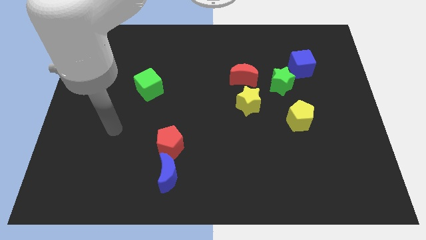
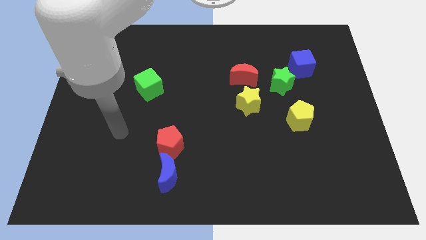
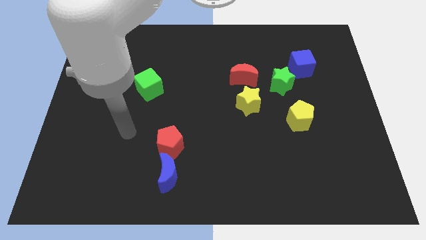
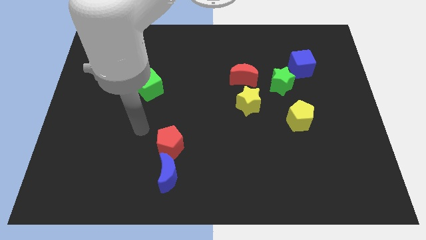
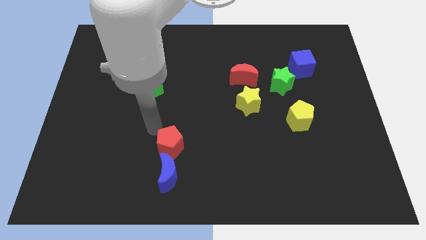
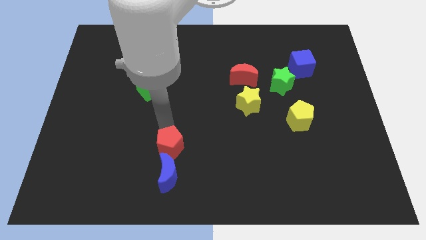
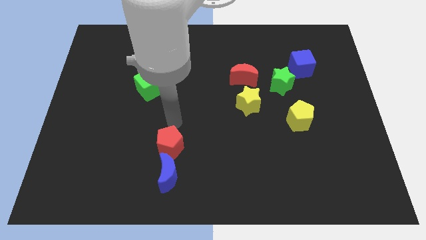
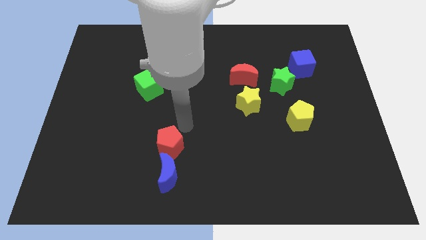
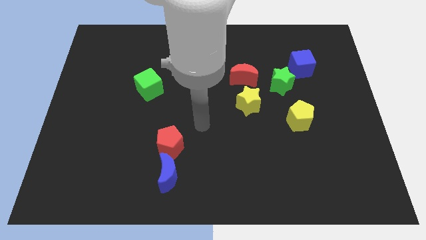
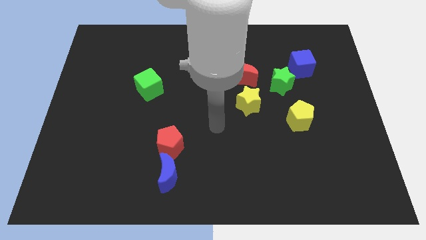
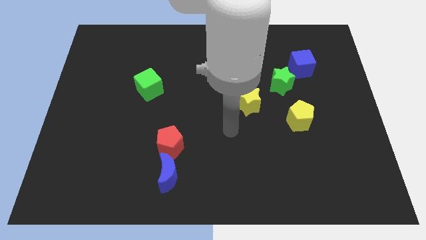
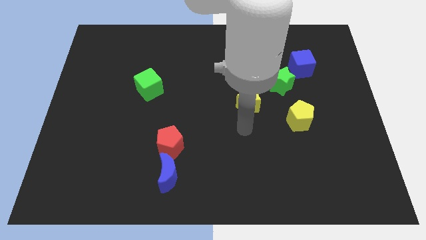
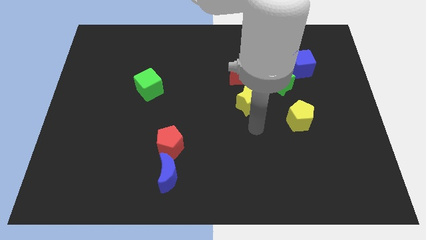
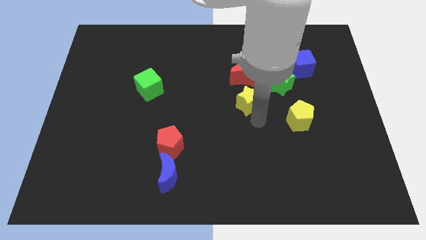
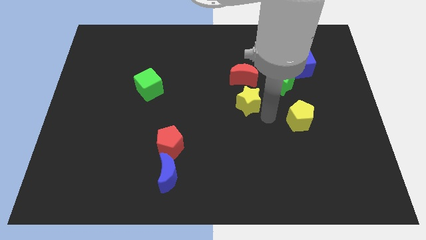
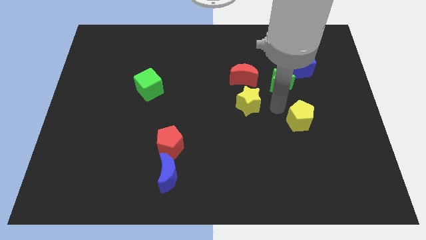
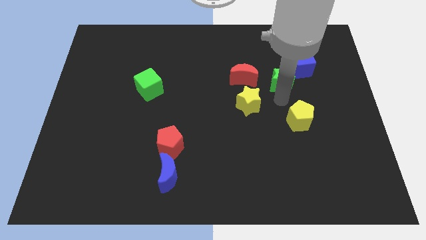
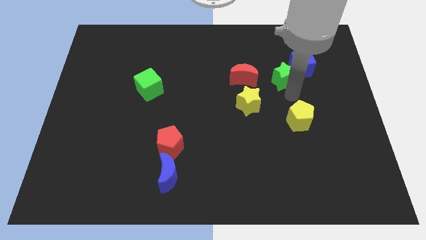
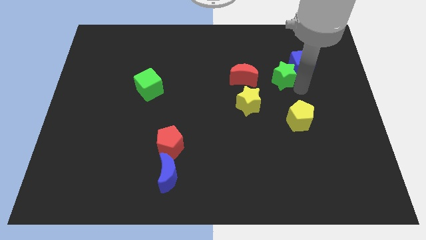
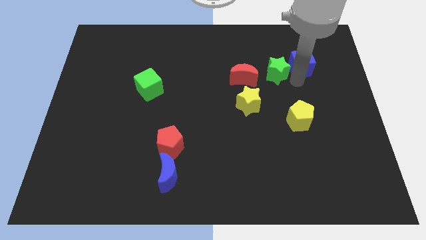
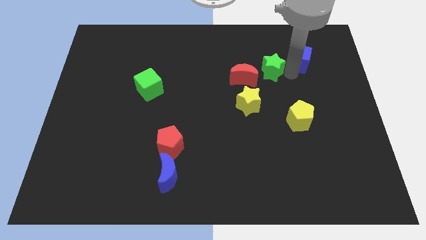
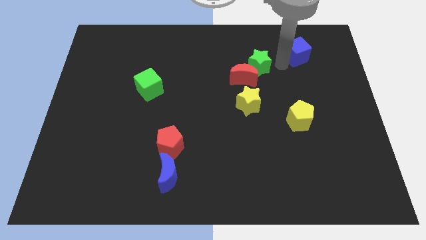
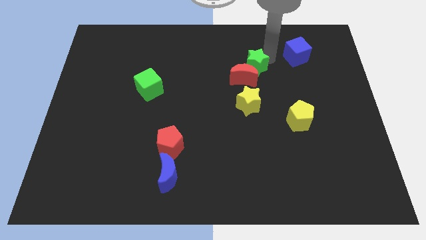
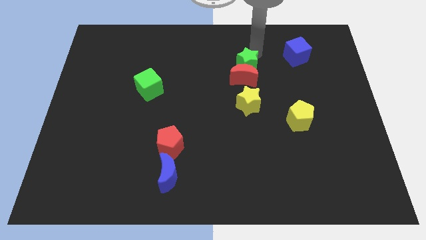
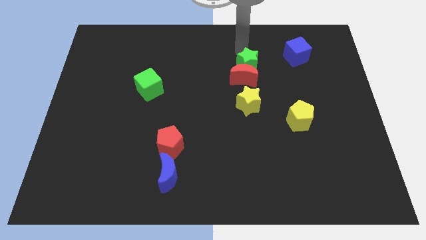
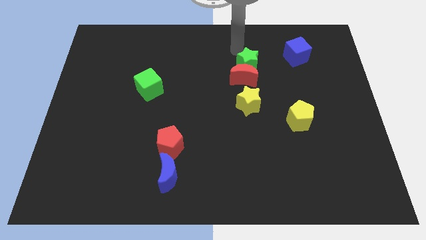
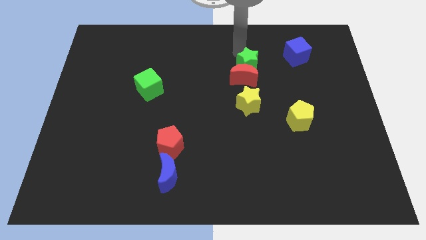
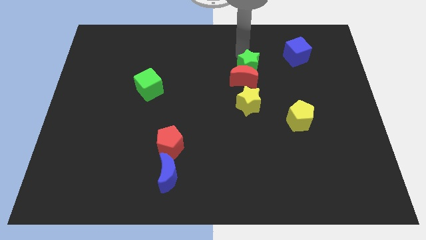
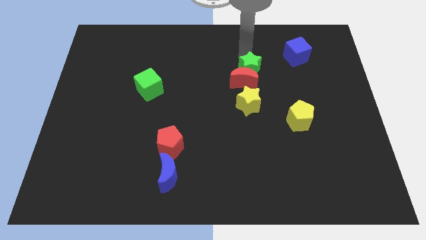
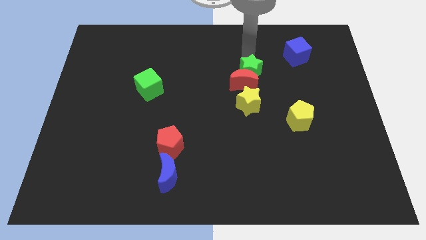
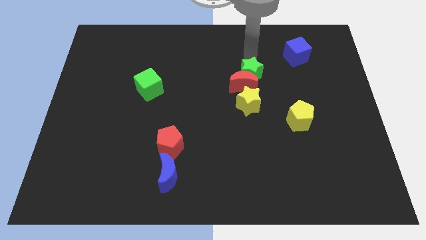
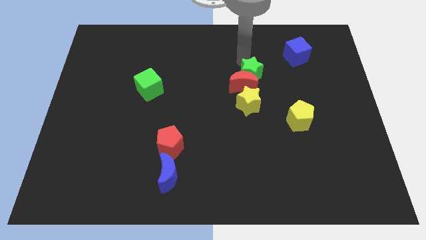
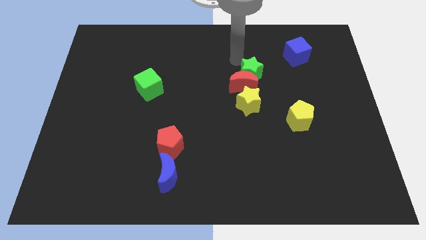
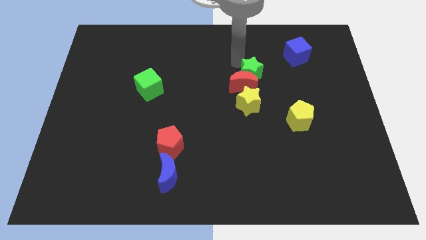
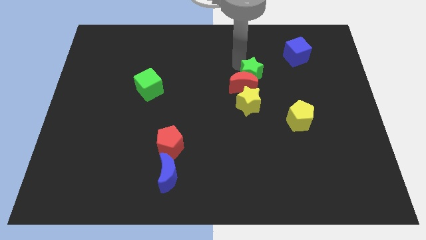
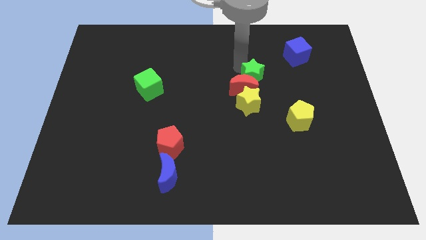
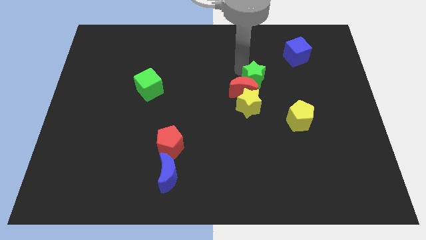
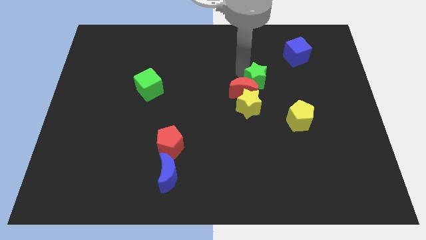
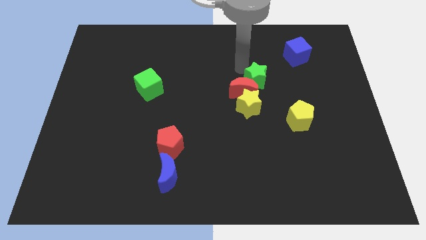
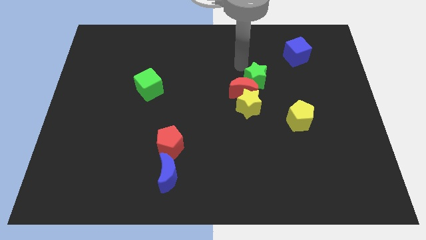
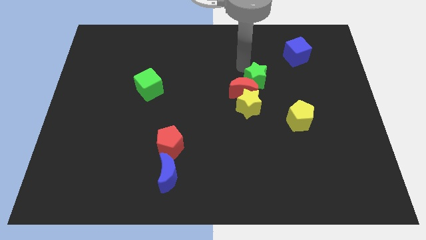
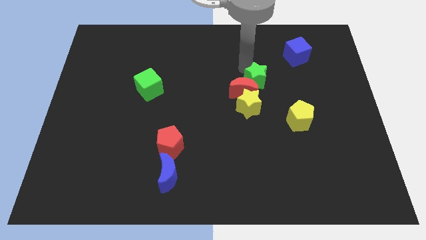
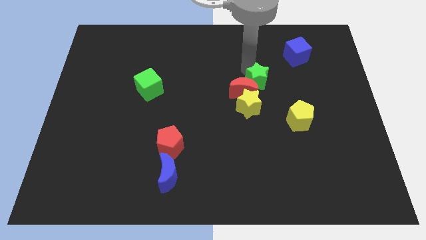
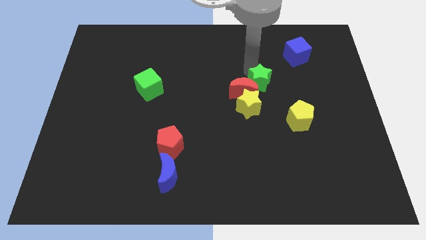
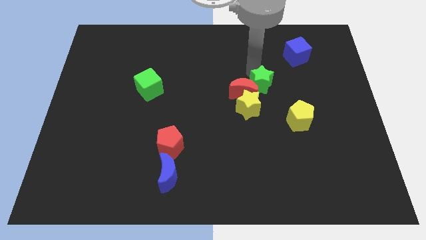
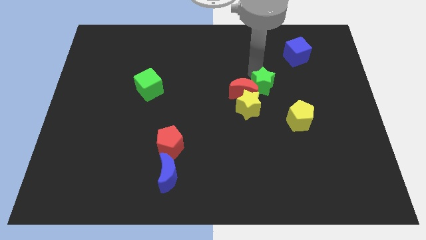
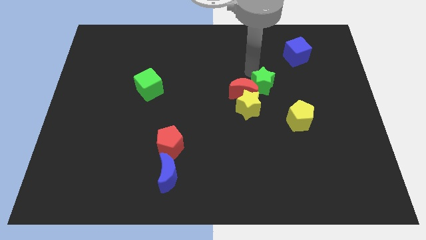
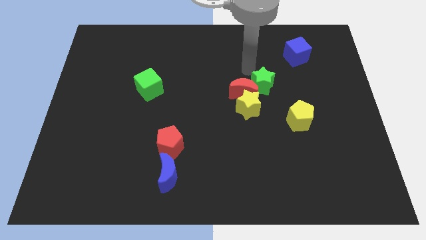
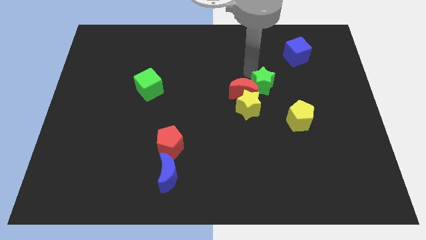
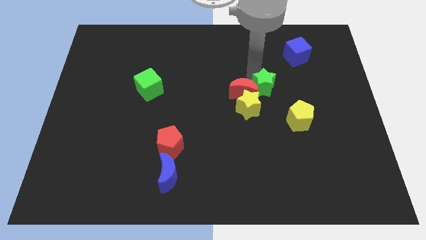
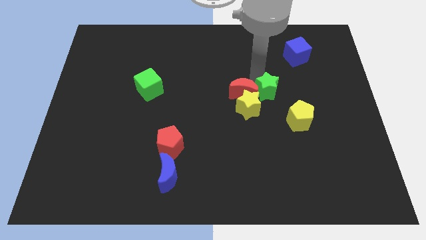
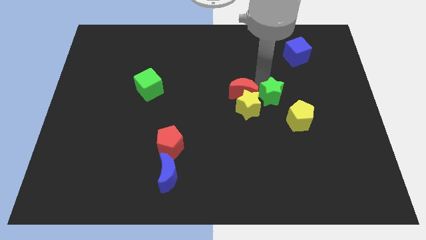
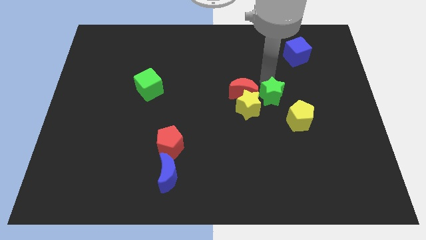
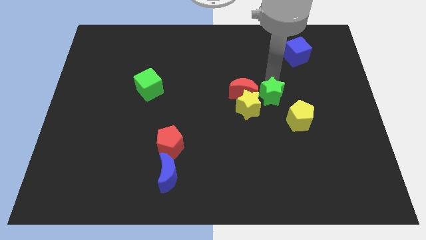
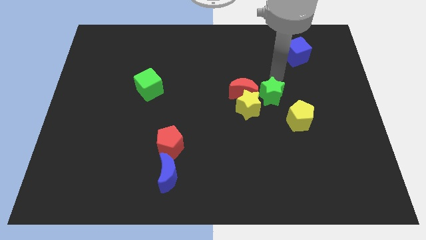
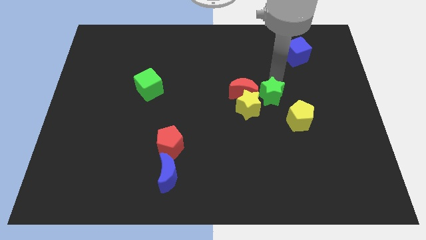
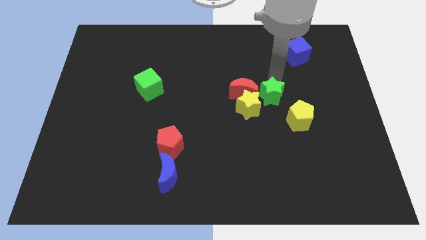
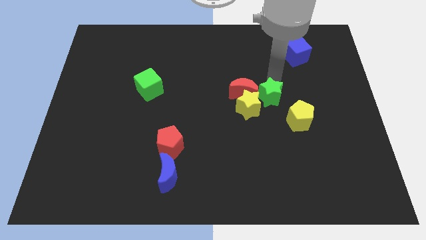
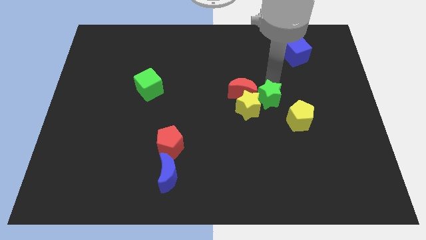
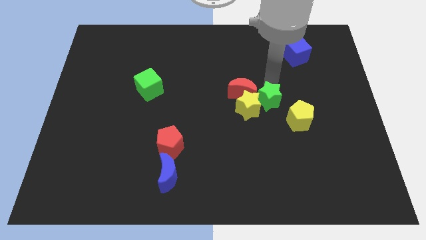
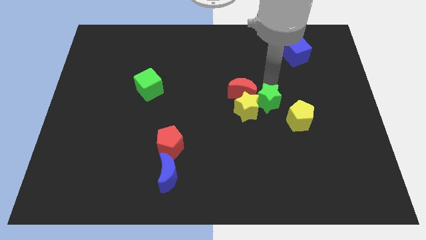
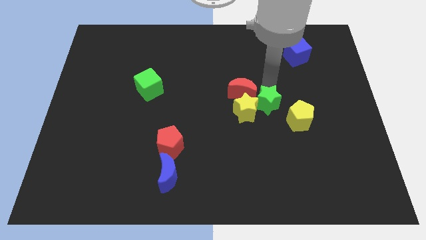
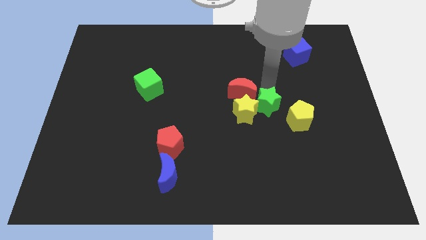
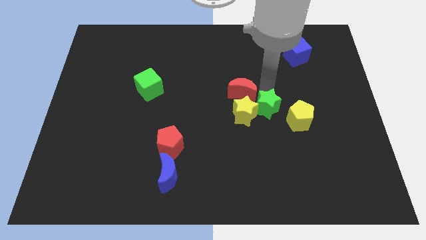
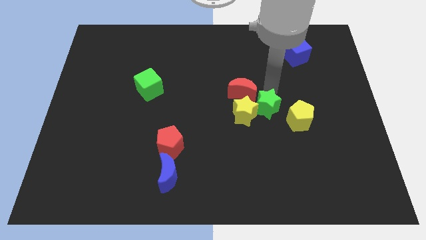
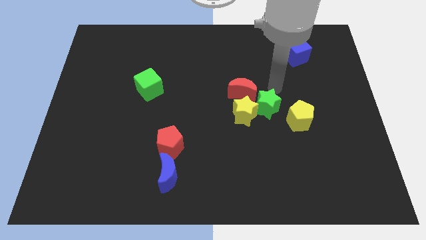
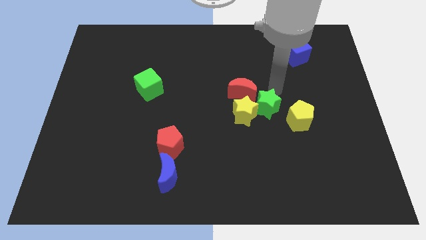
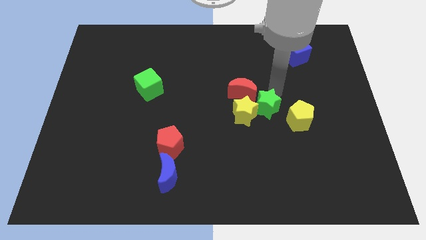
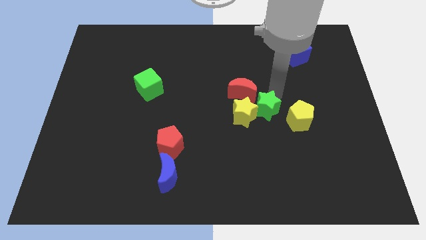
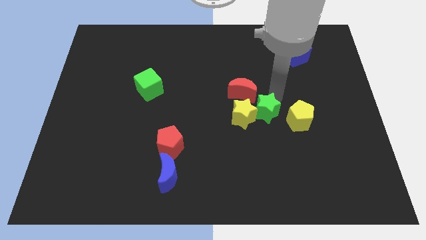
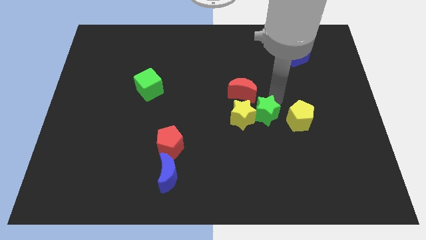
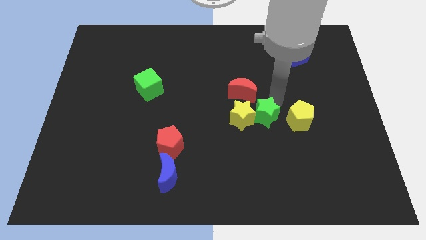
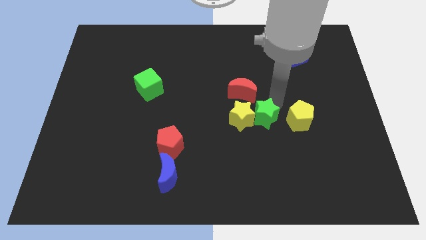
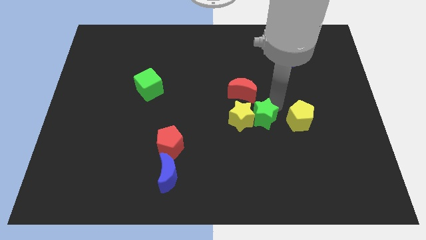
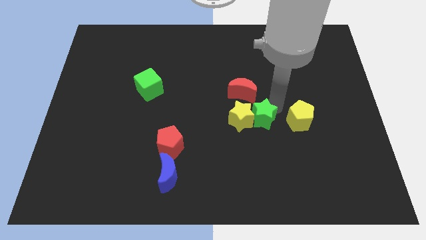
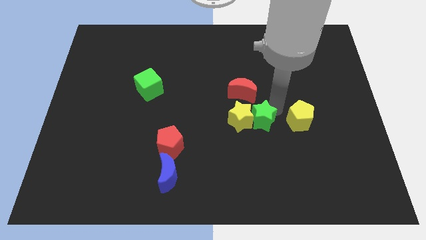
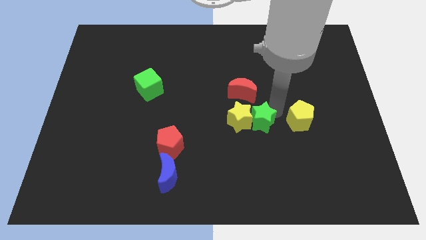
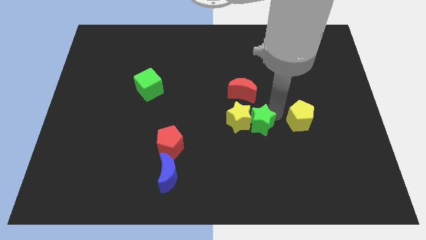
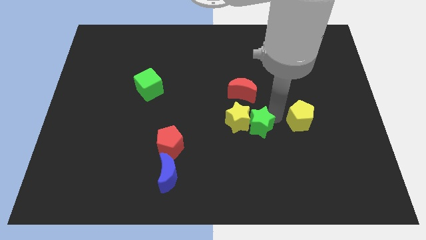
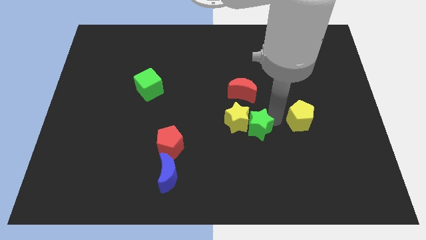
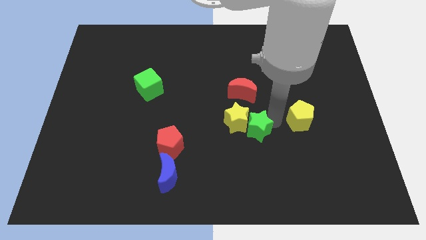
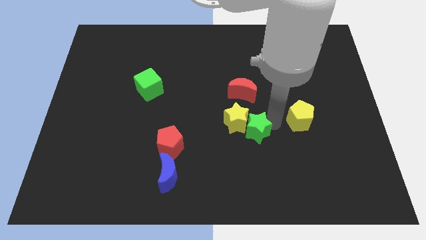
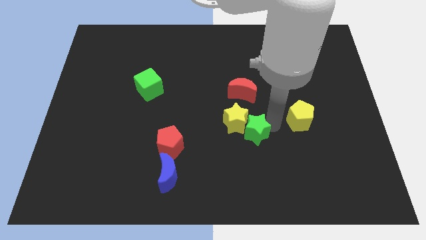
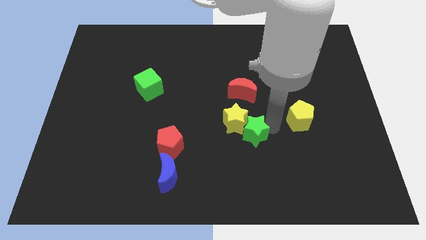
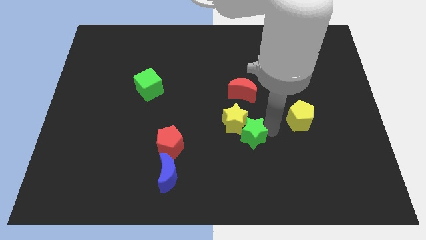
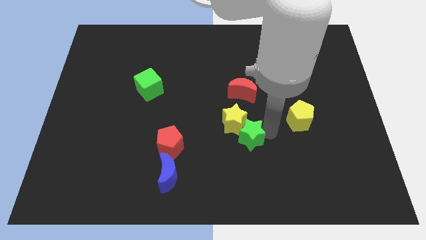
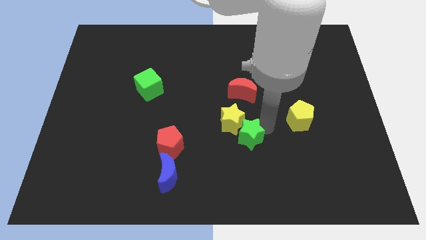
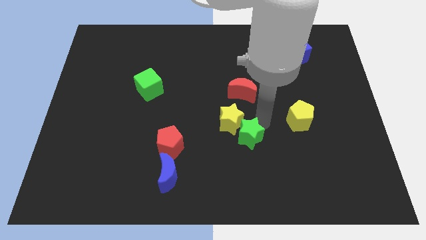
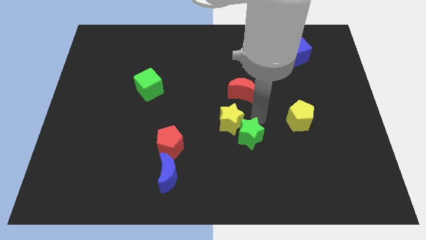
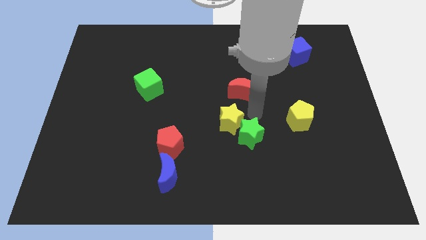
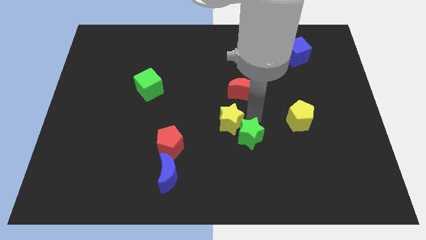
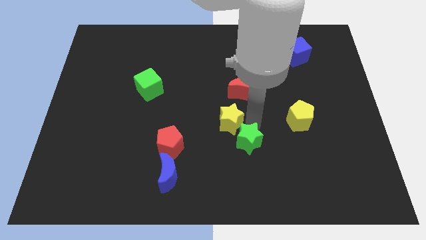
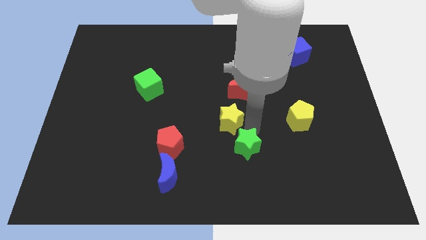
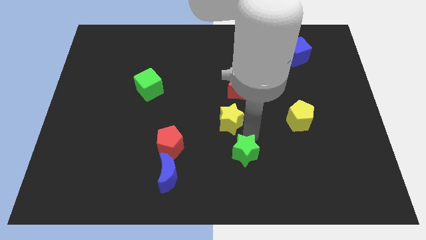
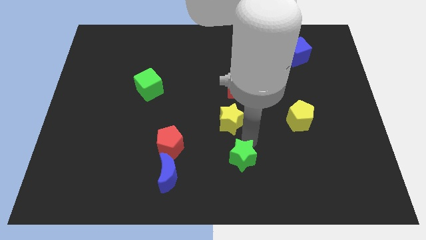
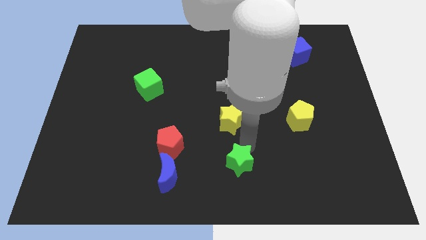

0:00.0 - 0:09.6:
put the green star to the bottom side
